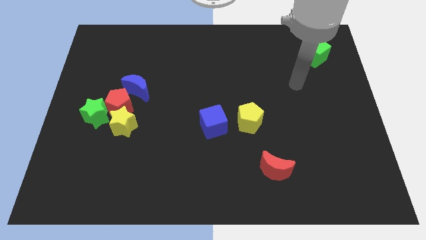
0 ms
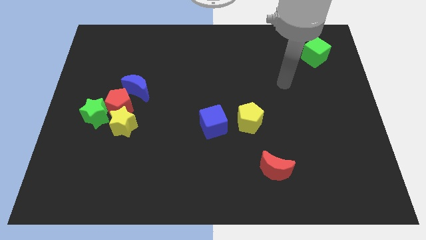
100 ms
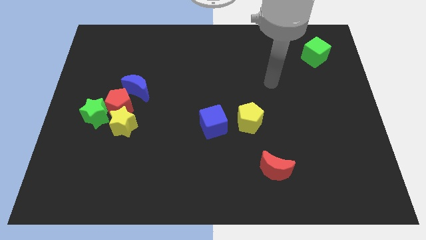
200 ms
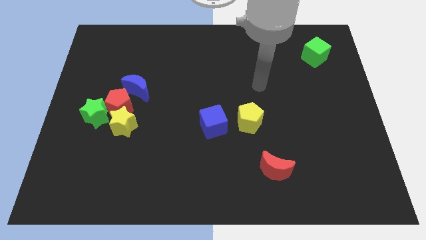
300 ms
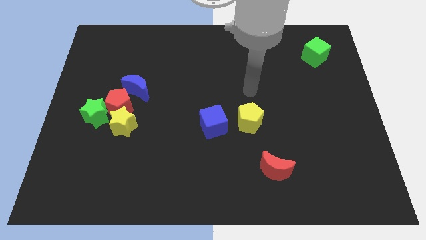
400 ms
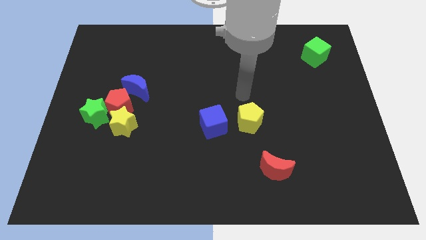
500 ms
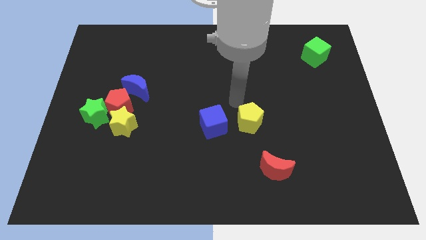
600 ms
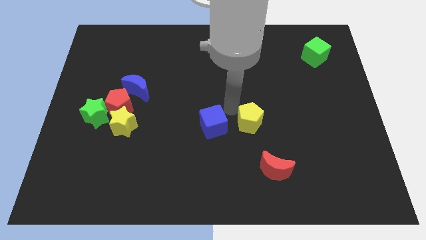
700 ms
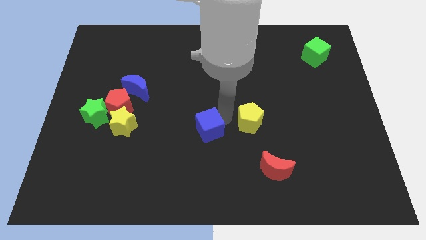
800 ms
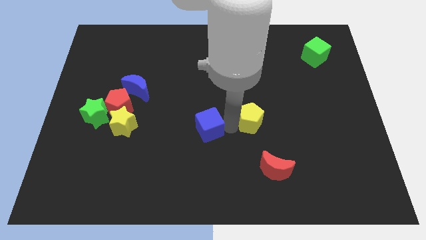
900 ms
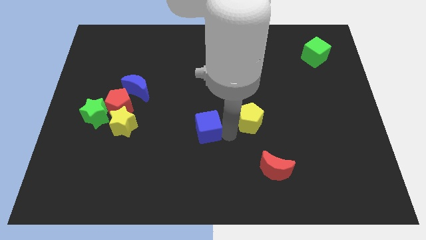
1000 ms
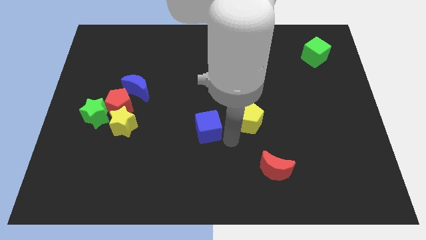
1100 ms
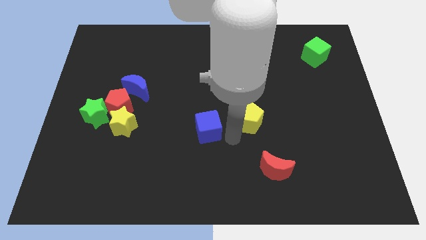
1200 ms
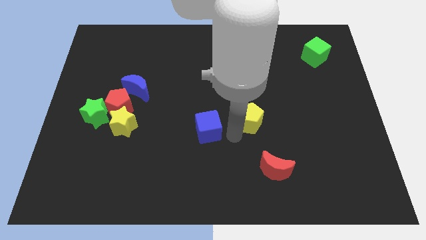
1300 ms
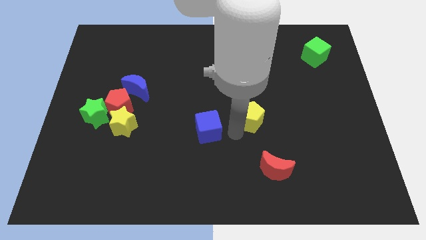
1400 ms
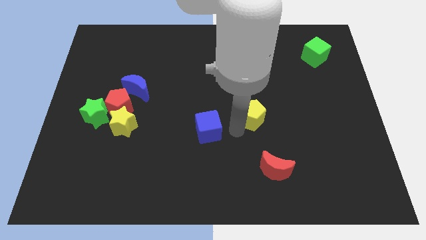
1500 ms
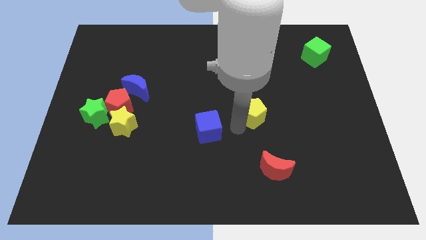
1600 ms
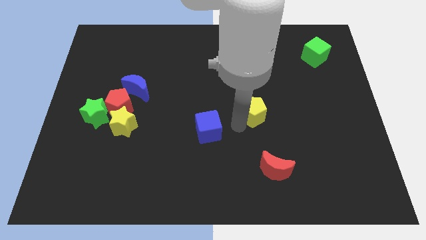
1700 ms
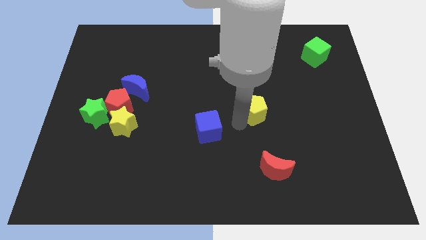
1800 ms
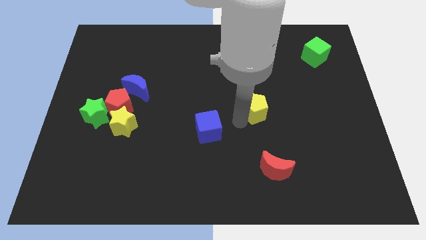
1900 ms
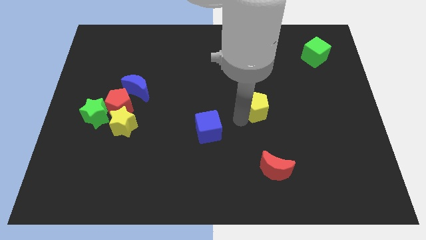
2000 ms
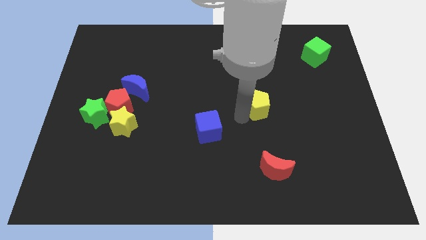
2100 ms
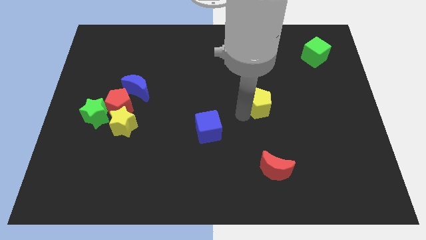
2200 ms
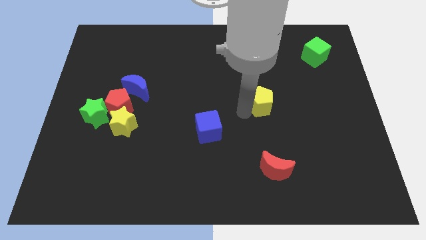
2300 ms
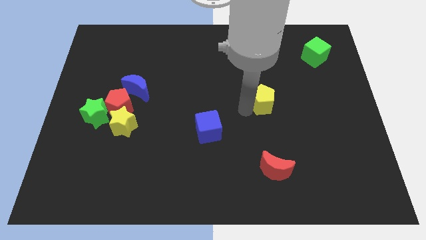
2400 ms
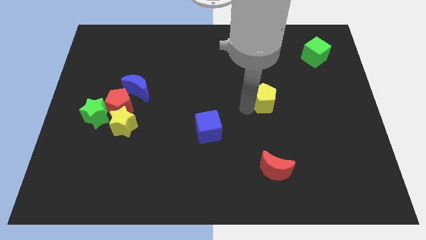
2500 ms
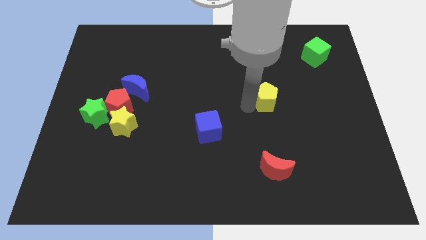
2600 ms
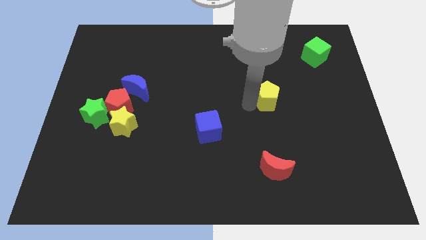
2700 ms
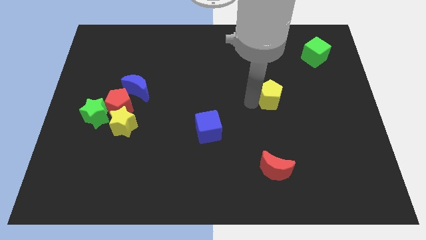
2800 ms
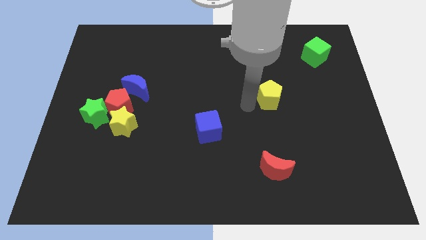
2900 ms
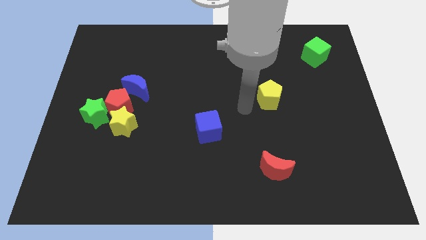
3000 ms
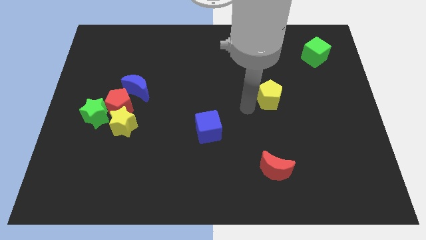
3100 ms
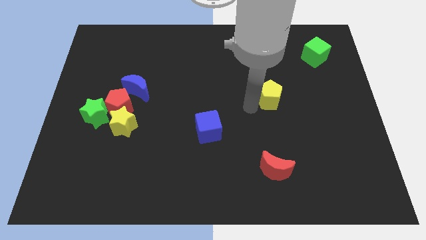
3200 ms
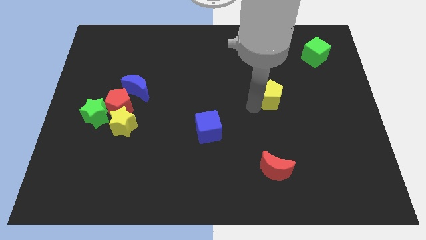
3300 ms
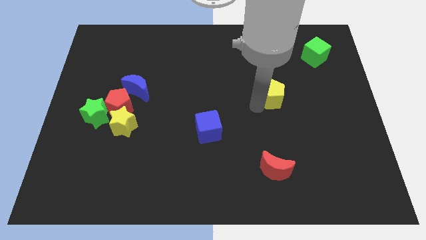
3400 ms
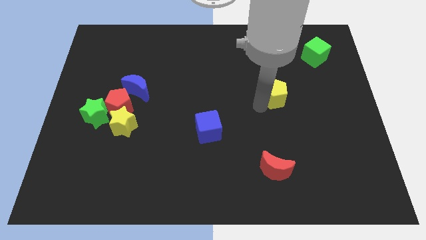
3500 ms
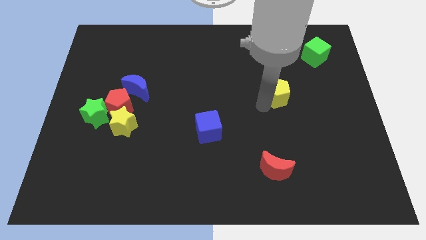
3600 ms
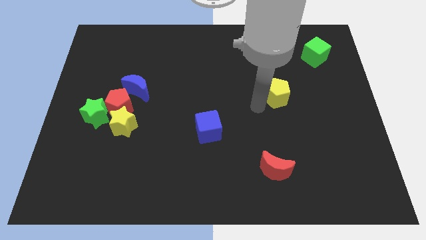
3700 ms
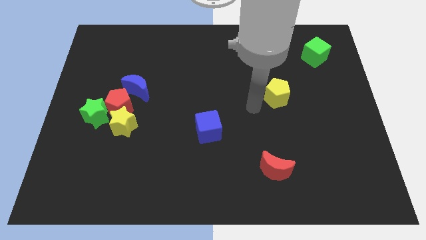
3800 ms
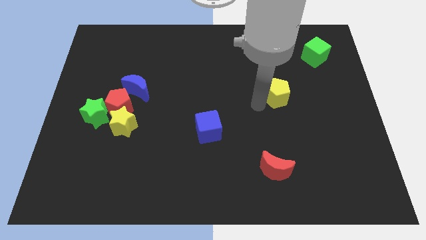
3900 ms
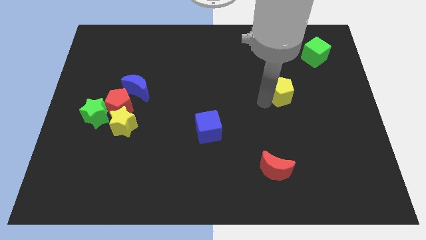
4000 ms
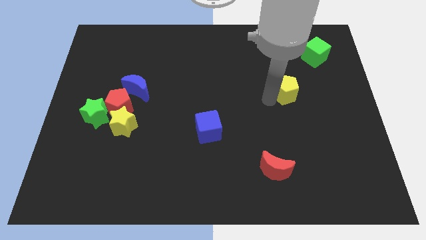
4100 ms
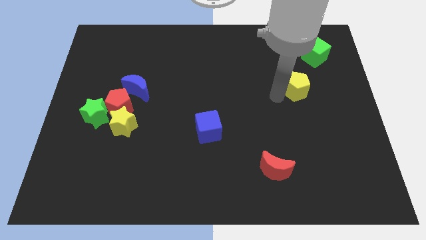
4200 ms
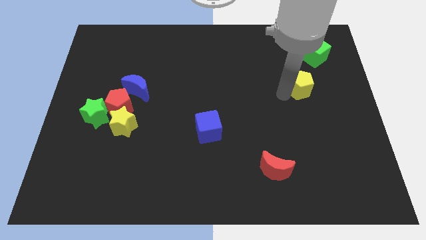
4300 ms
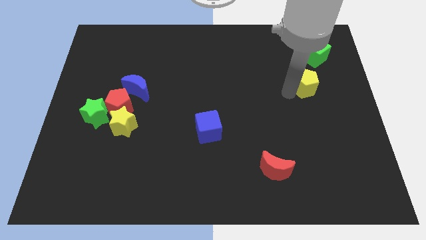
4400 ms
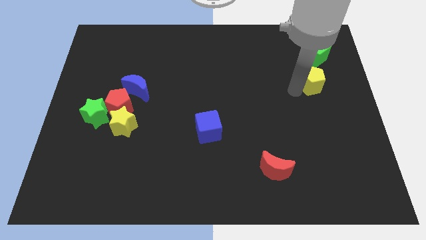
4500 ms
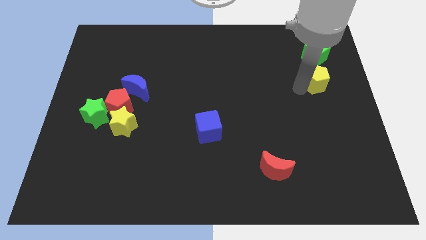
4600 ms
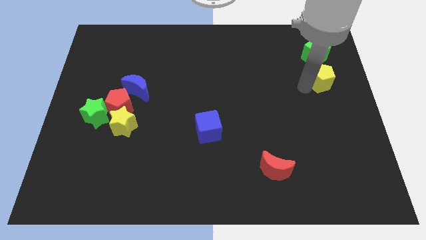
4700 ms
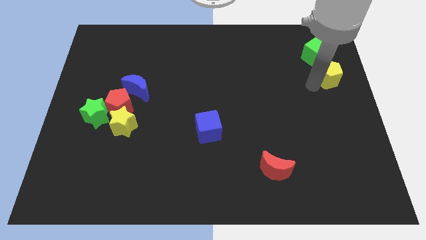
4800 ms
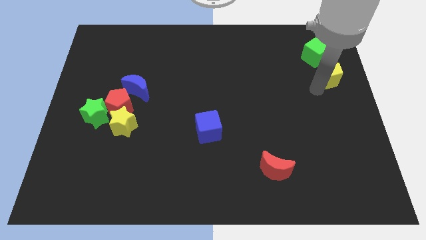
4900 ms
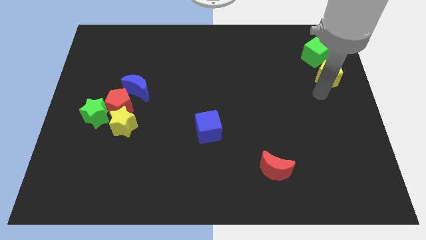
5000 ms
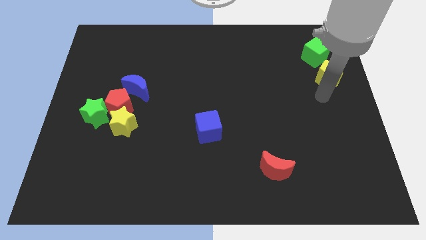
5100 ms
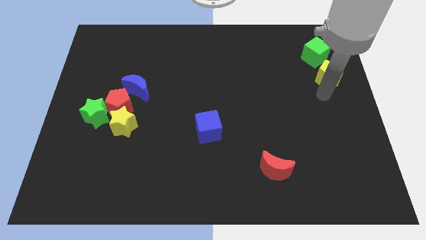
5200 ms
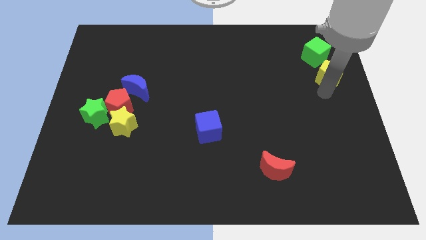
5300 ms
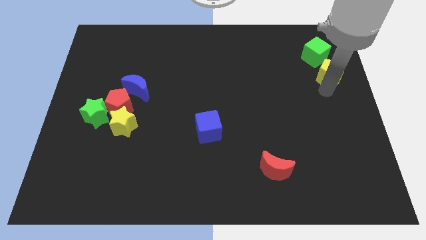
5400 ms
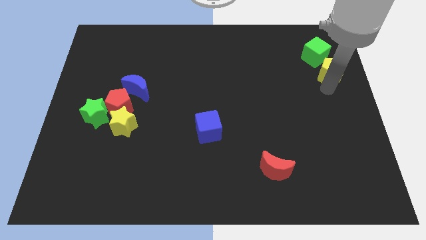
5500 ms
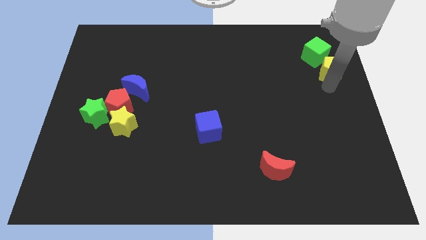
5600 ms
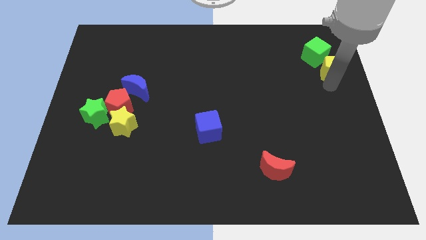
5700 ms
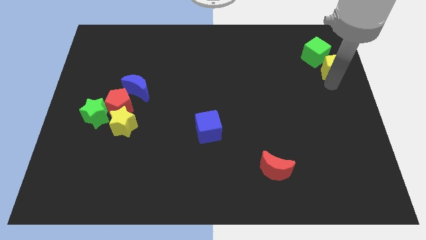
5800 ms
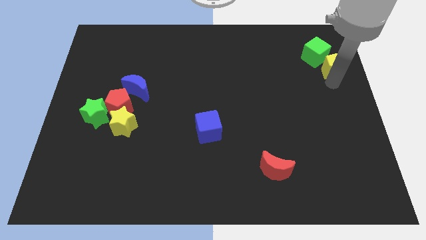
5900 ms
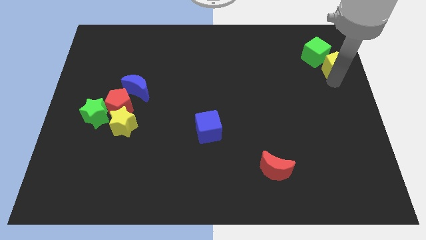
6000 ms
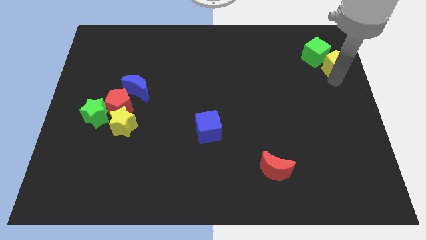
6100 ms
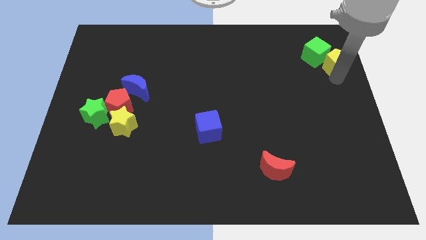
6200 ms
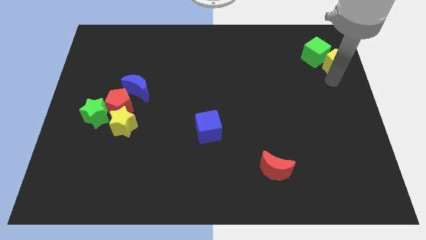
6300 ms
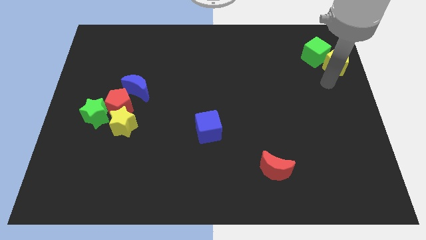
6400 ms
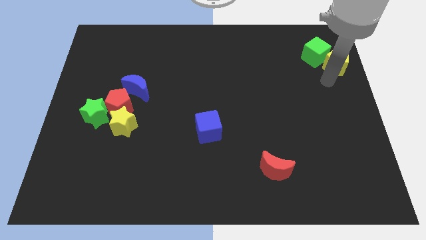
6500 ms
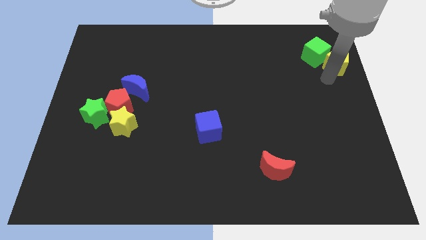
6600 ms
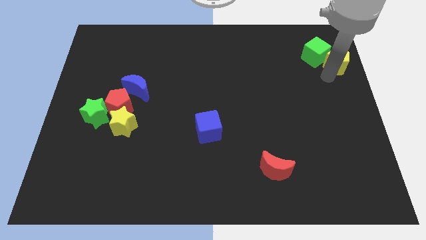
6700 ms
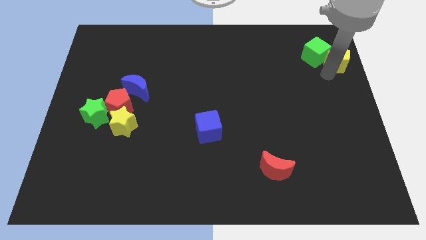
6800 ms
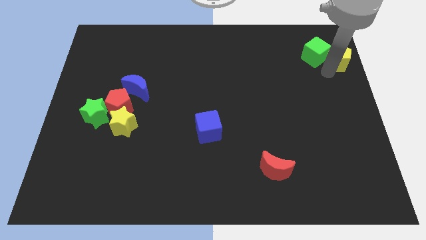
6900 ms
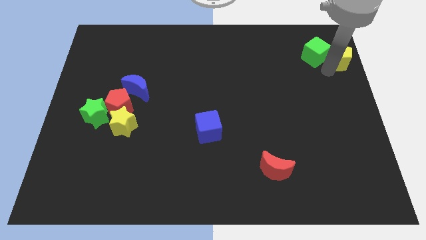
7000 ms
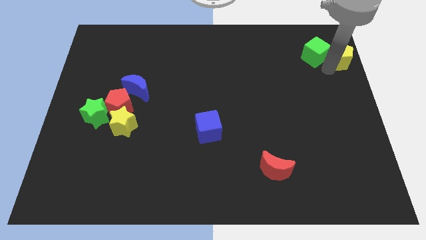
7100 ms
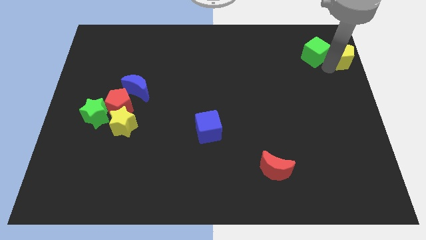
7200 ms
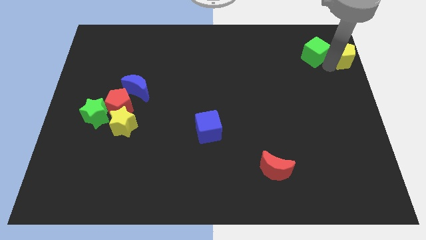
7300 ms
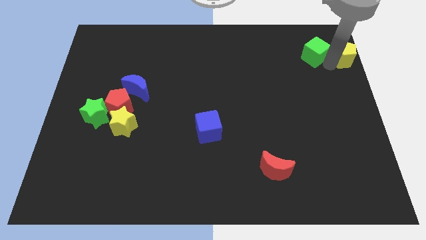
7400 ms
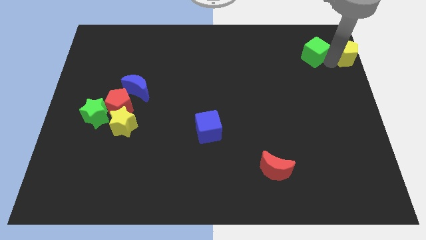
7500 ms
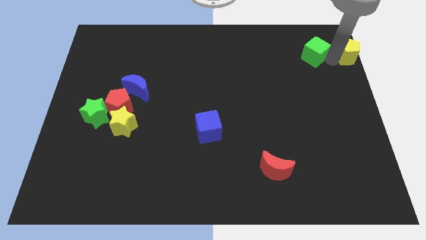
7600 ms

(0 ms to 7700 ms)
move the yellow pentagon to the top right corner
